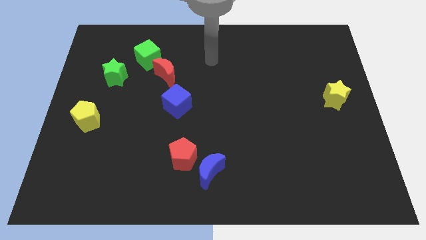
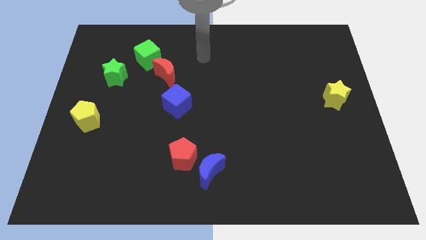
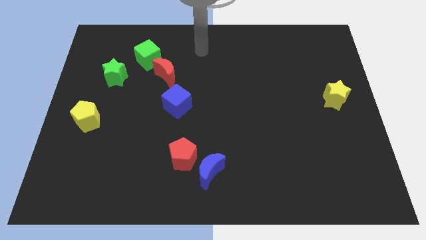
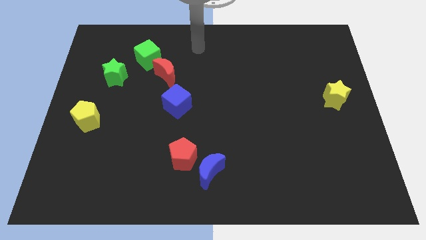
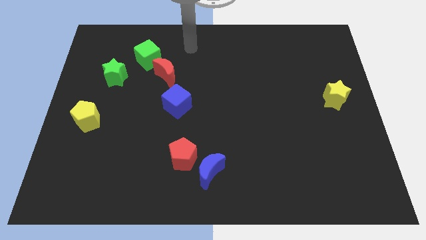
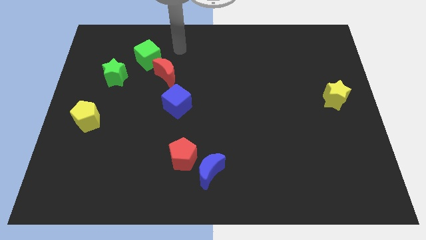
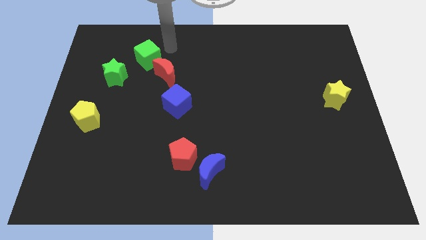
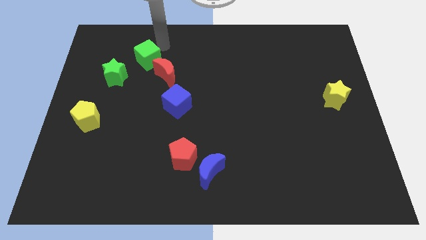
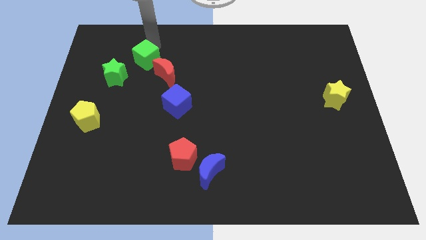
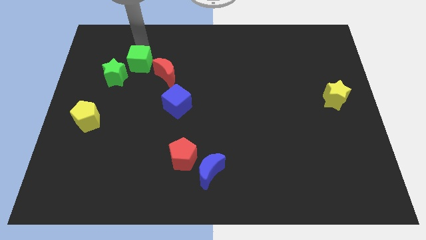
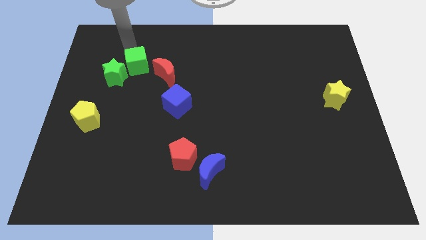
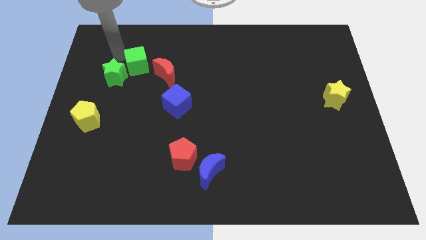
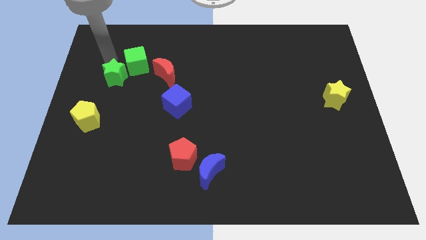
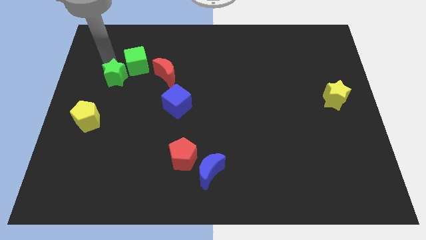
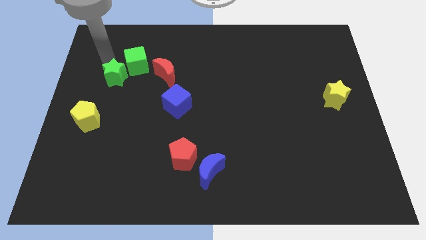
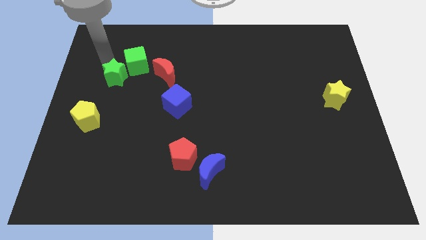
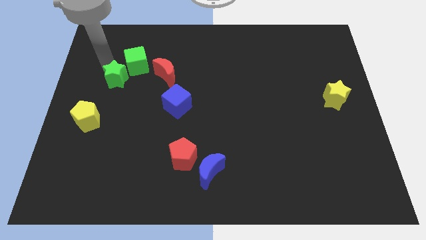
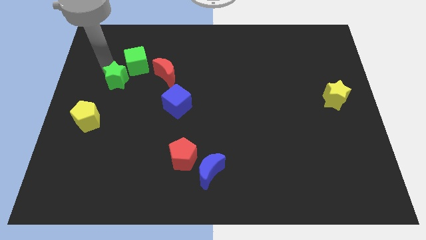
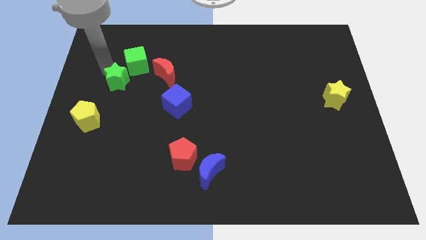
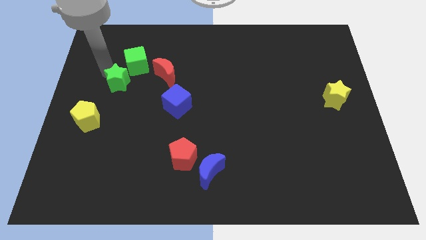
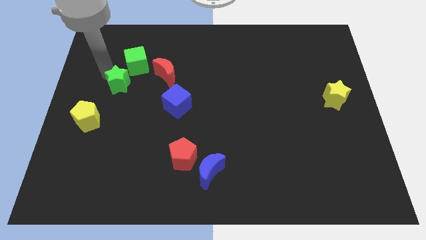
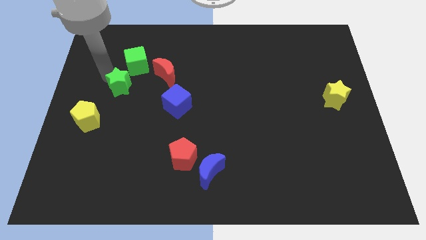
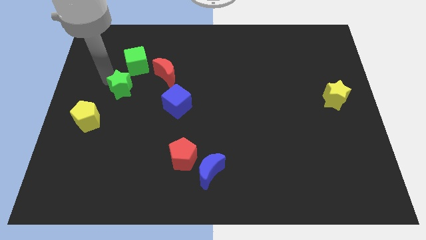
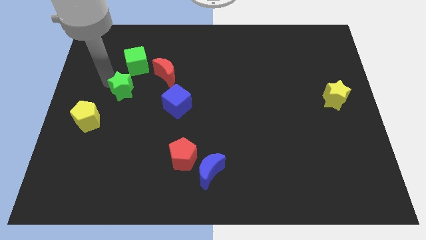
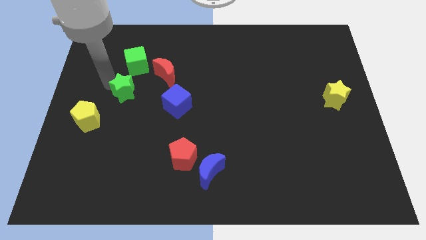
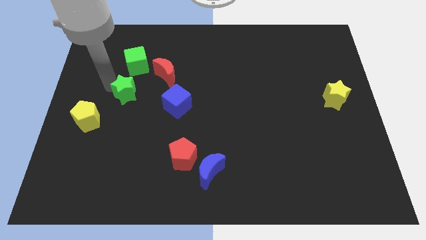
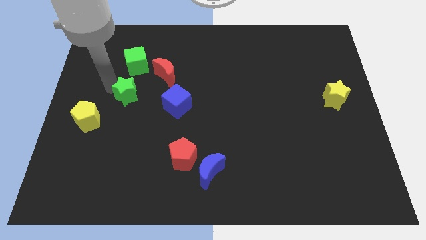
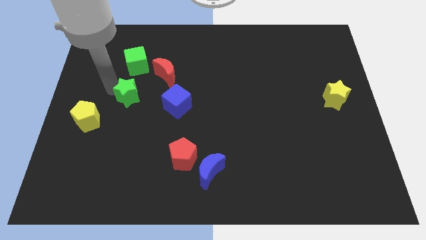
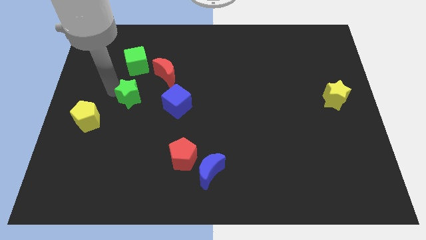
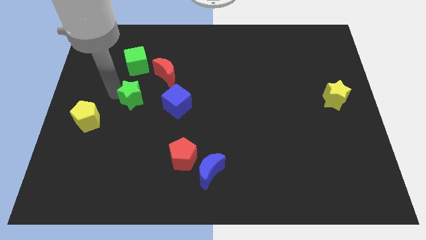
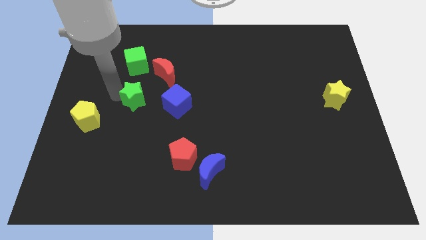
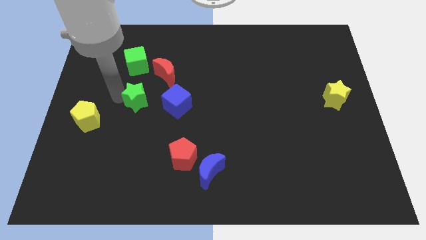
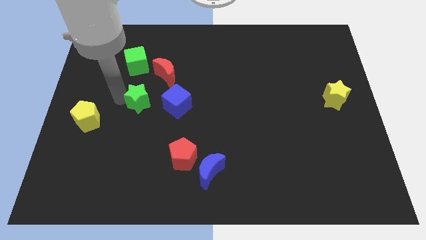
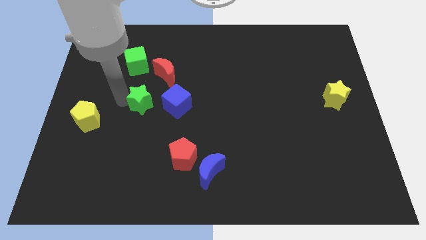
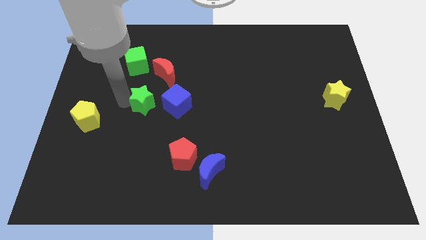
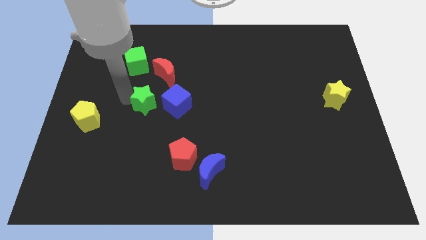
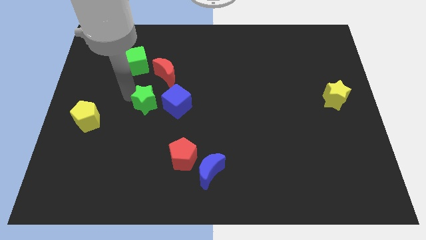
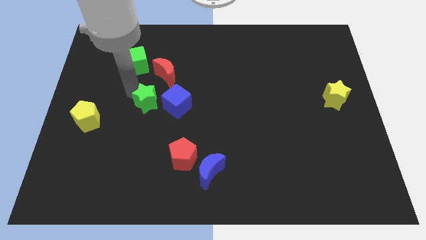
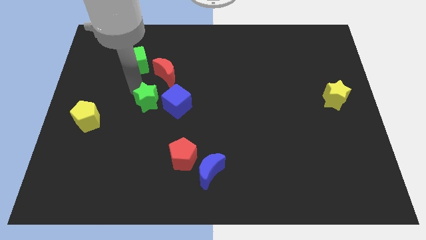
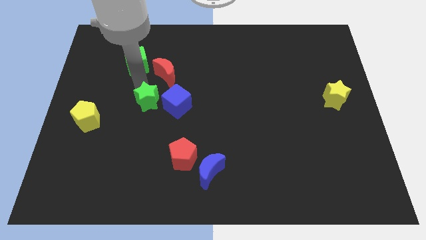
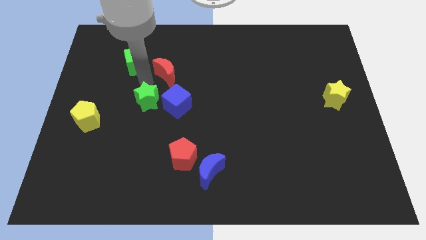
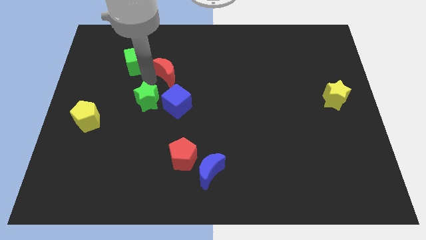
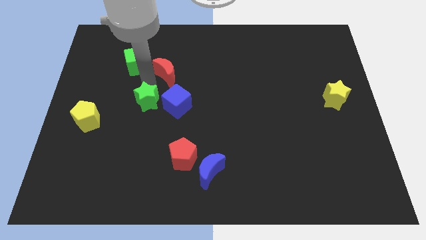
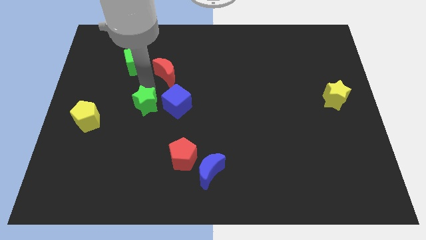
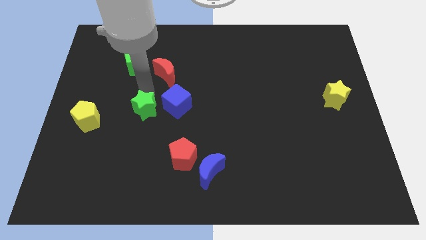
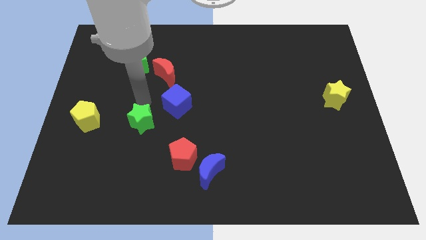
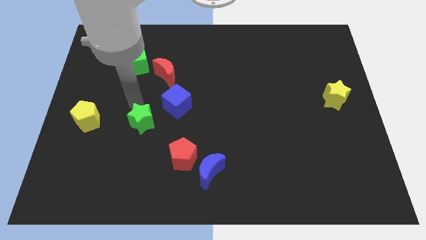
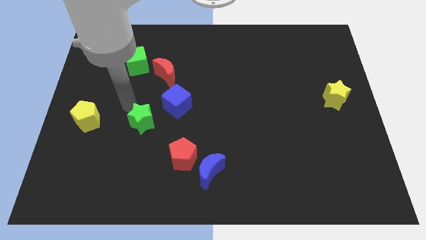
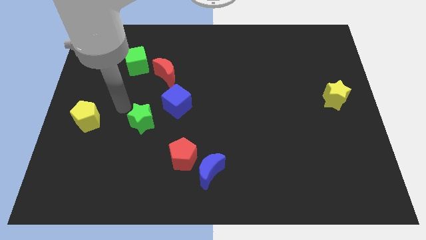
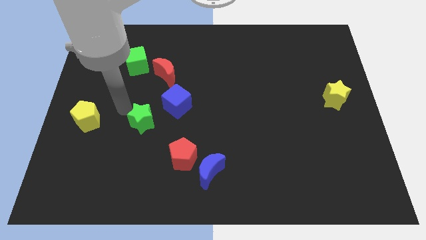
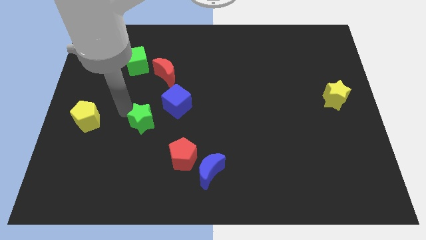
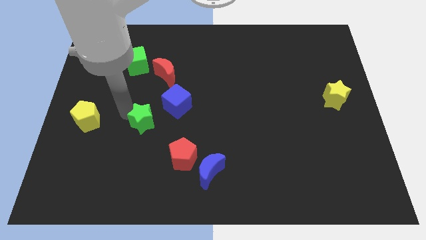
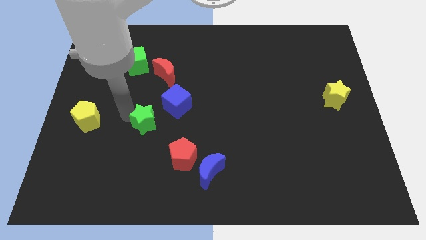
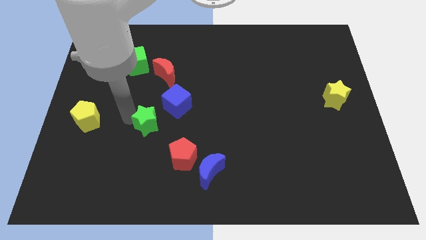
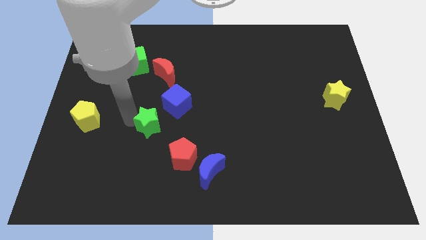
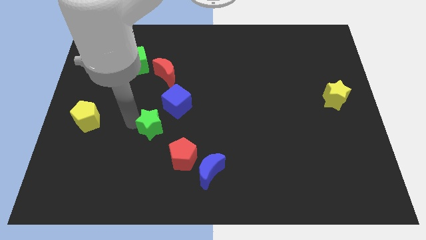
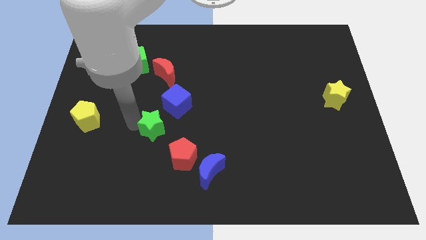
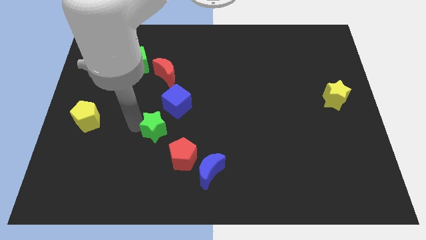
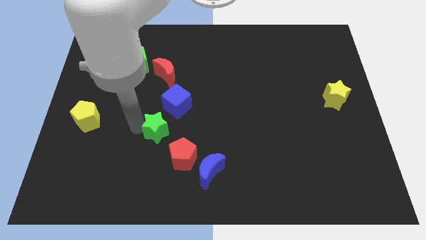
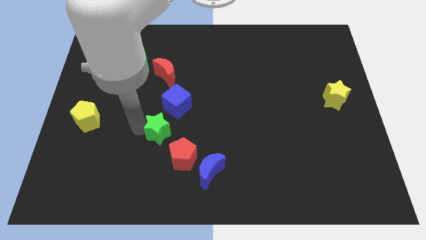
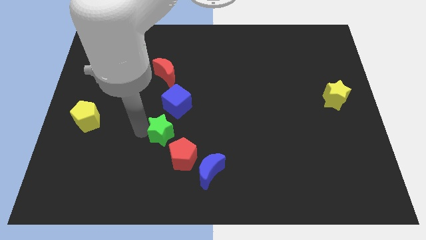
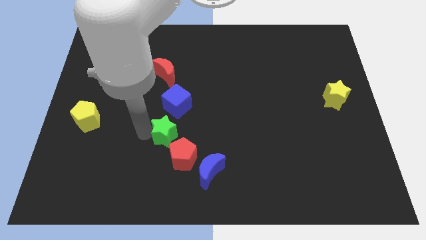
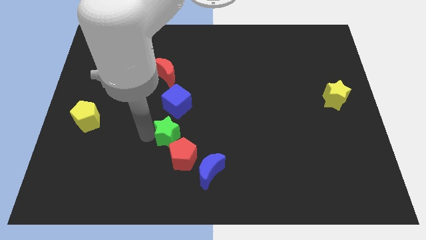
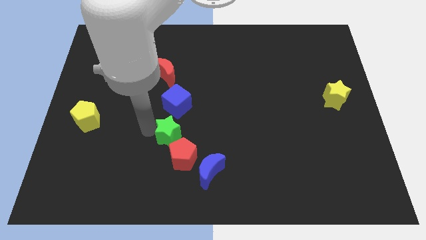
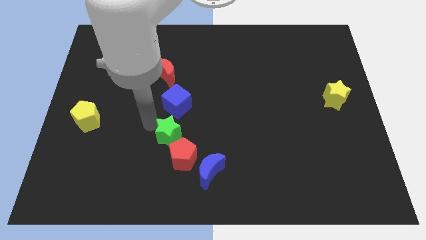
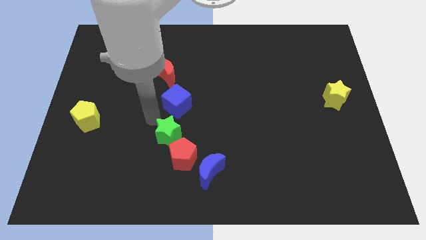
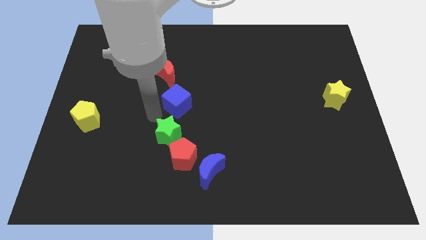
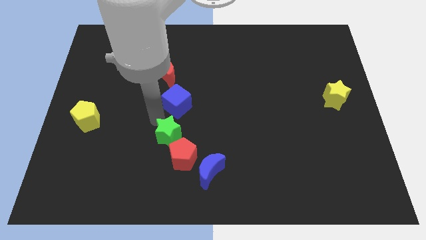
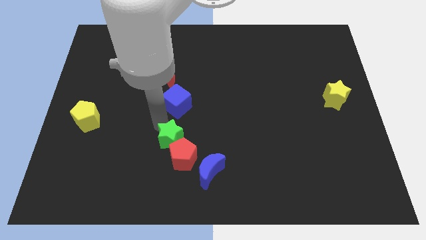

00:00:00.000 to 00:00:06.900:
slide the green star next to the red pentagon

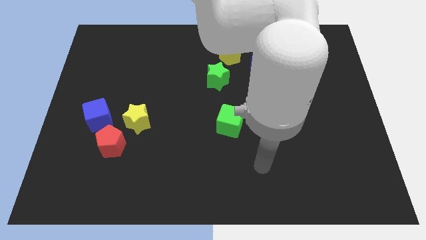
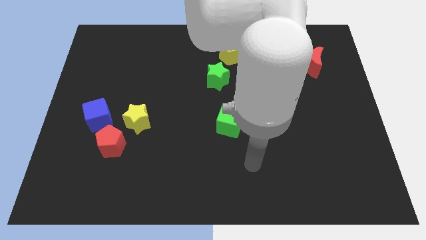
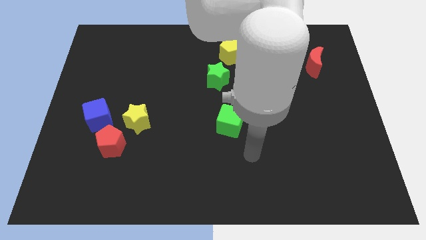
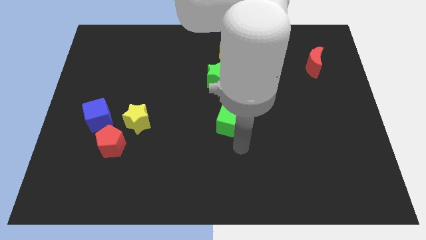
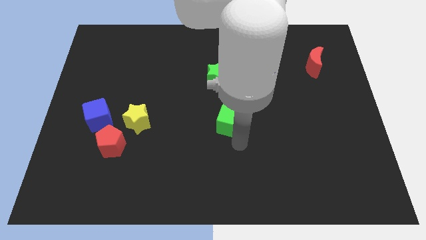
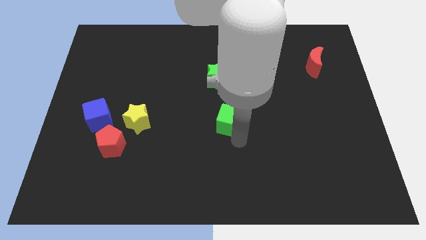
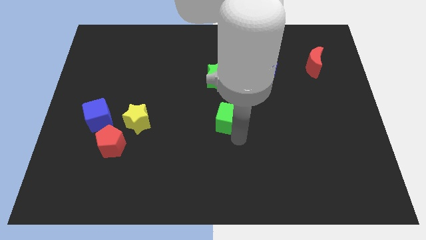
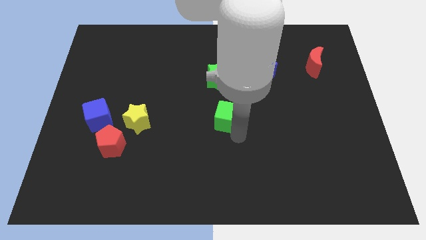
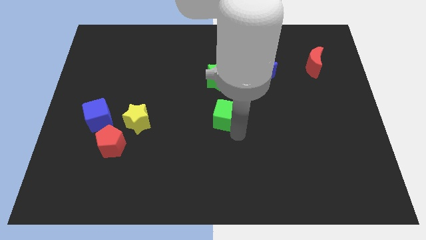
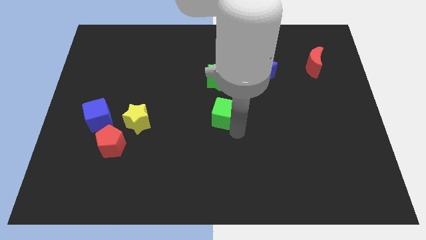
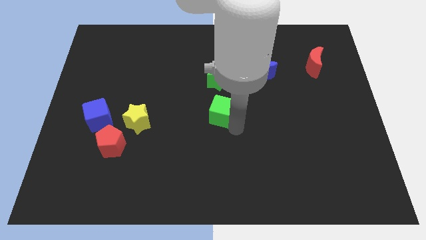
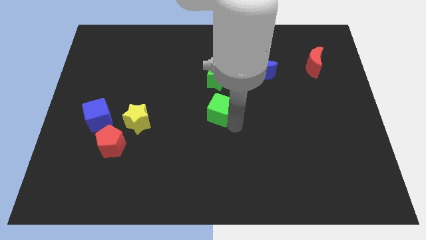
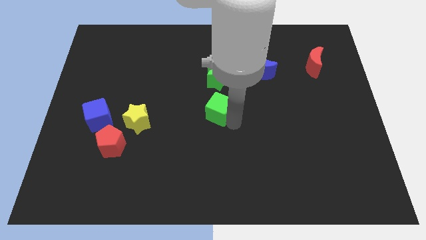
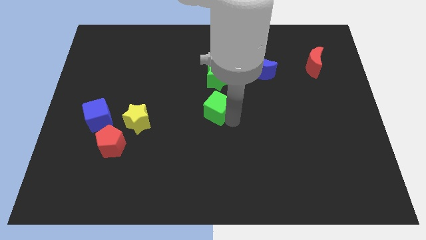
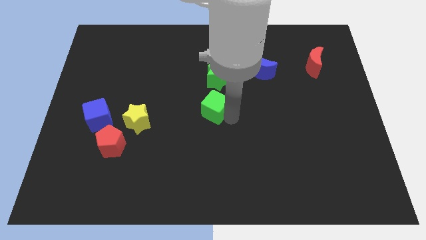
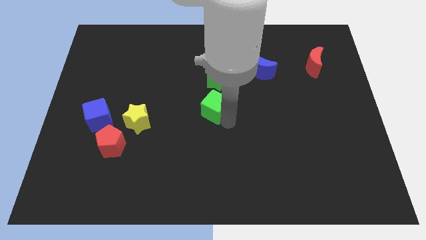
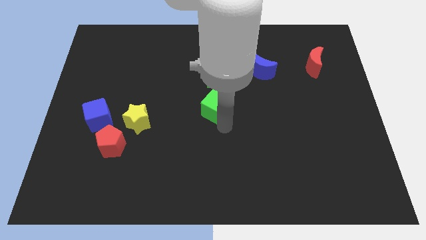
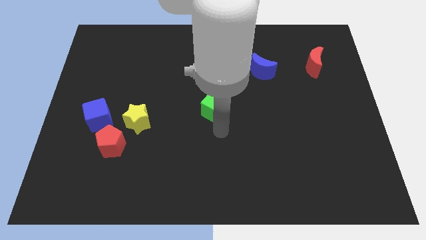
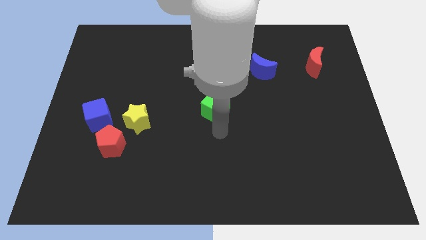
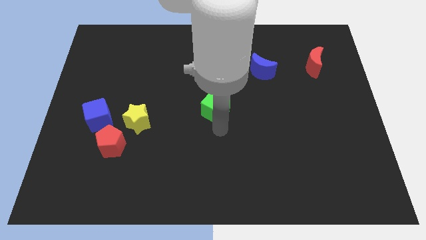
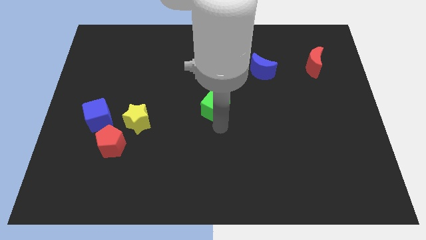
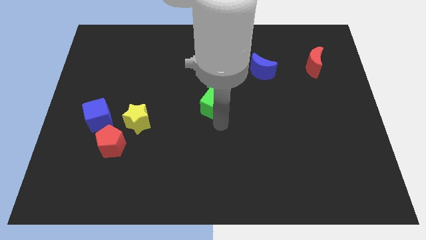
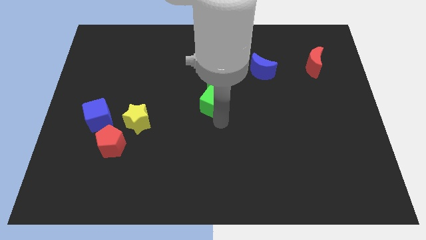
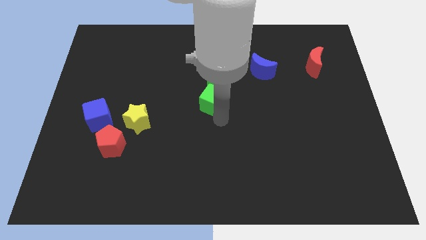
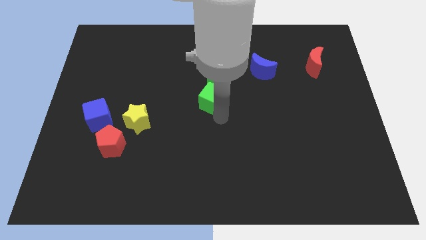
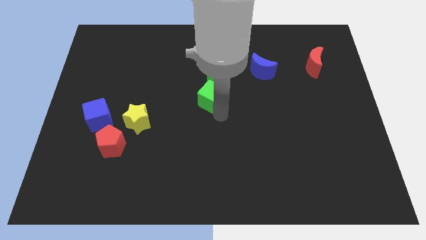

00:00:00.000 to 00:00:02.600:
slide the green cube to the green star
